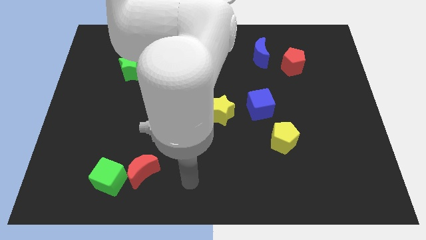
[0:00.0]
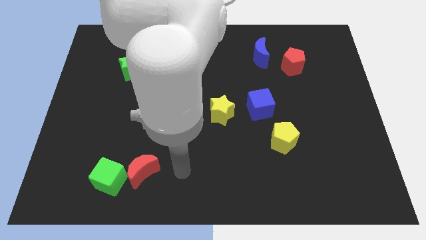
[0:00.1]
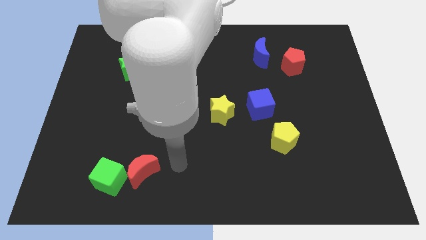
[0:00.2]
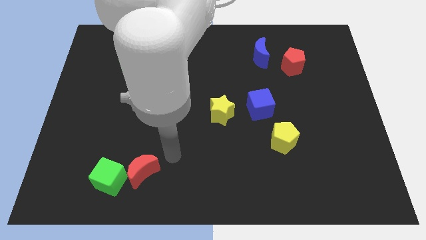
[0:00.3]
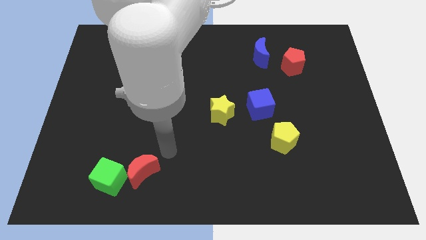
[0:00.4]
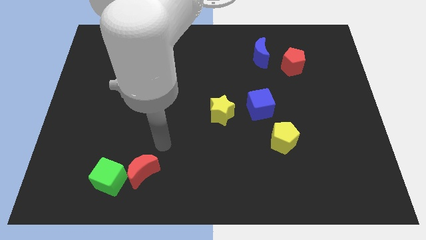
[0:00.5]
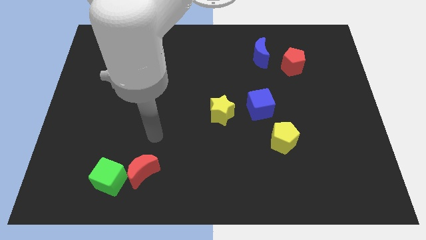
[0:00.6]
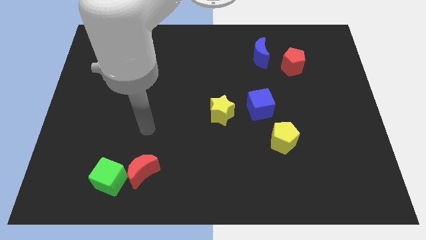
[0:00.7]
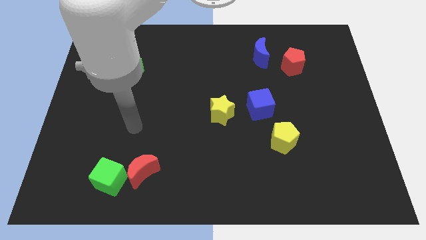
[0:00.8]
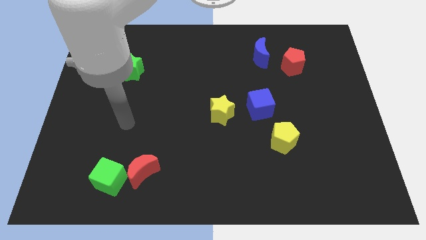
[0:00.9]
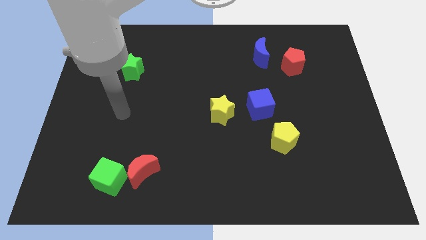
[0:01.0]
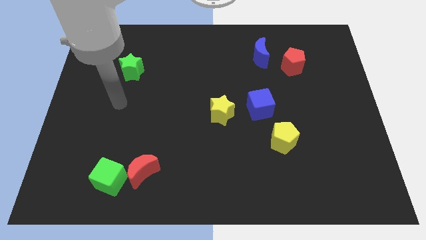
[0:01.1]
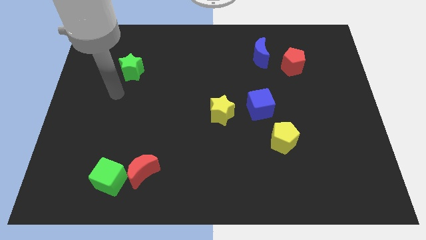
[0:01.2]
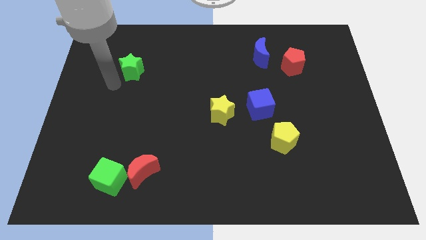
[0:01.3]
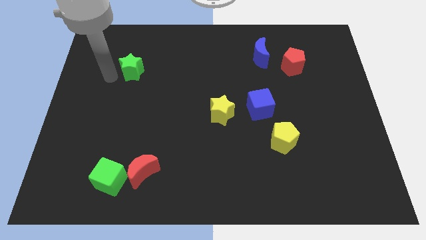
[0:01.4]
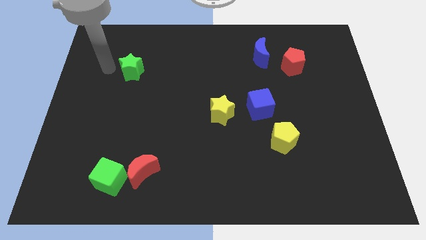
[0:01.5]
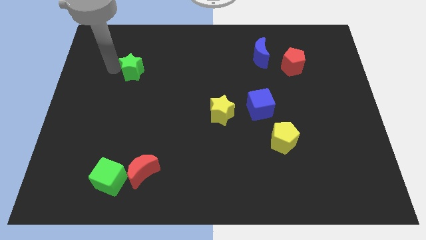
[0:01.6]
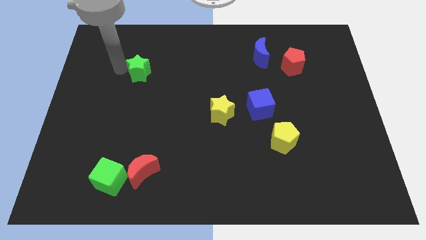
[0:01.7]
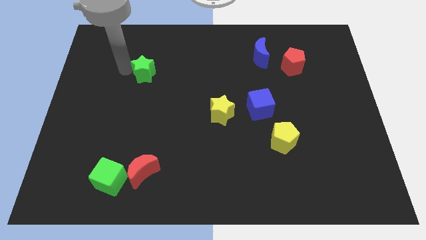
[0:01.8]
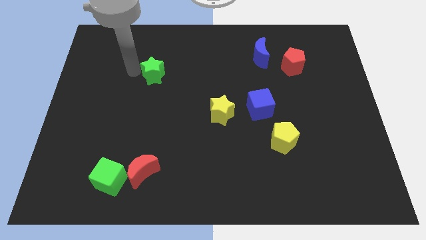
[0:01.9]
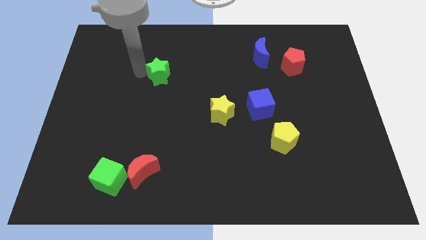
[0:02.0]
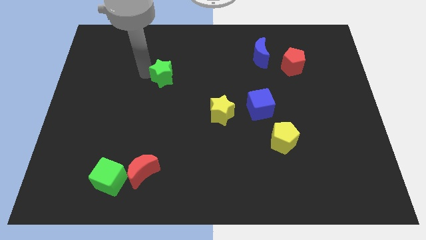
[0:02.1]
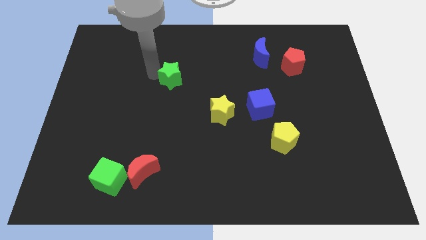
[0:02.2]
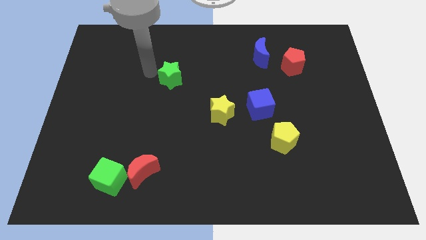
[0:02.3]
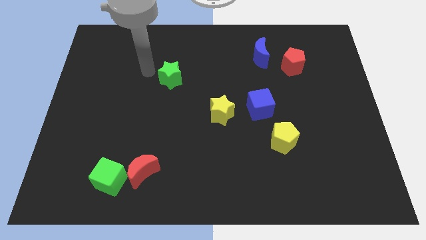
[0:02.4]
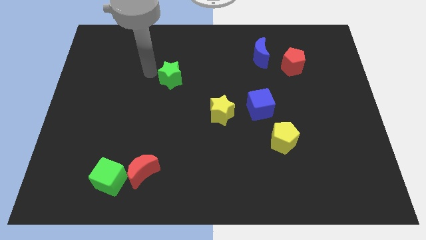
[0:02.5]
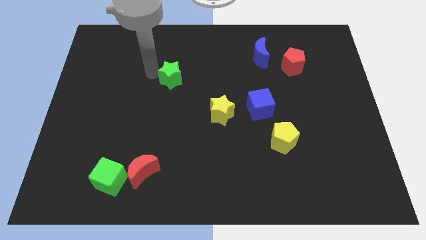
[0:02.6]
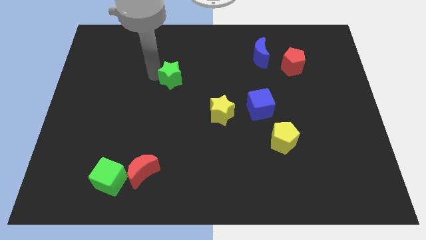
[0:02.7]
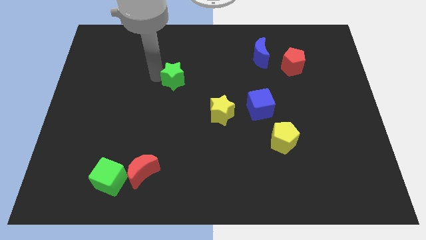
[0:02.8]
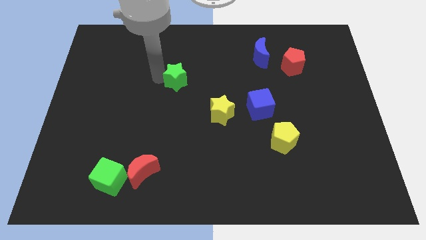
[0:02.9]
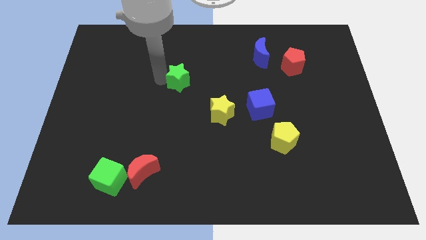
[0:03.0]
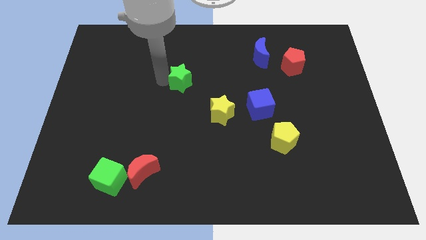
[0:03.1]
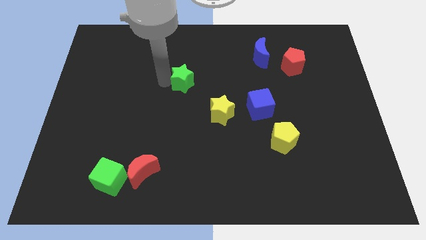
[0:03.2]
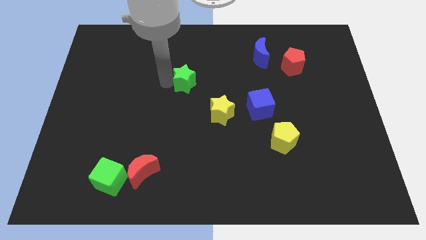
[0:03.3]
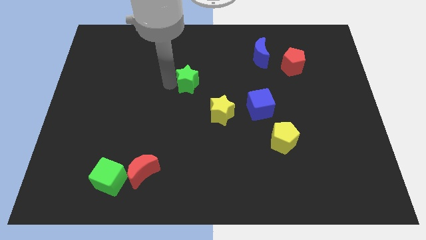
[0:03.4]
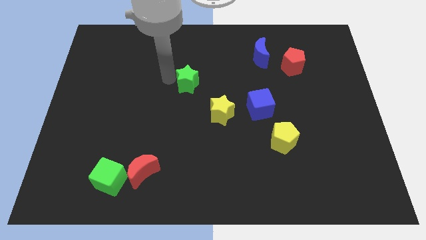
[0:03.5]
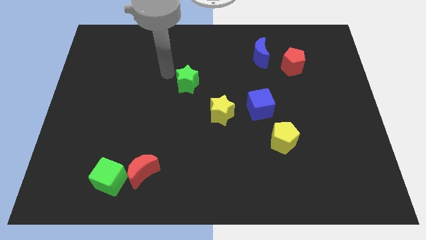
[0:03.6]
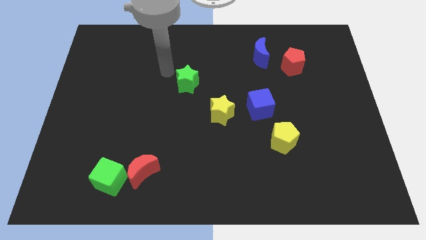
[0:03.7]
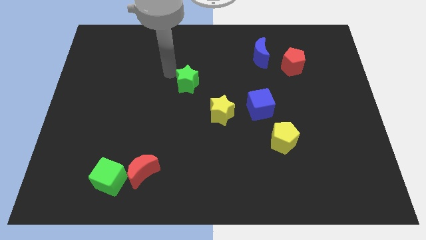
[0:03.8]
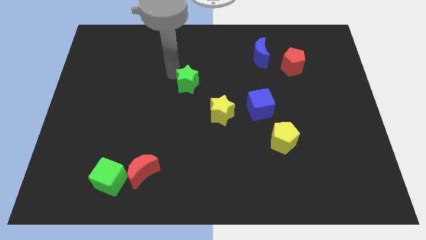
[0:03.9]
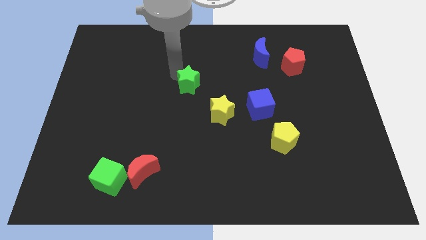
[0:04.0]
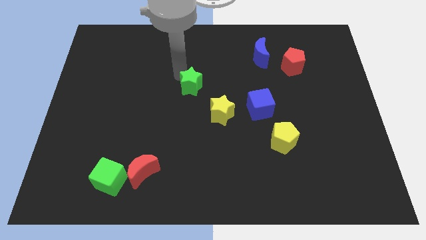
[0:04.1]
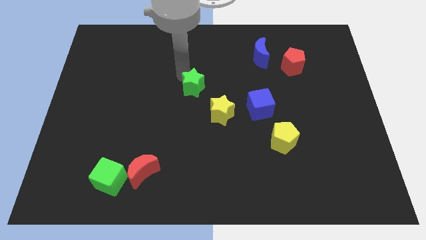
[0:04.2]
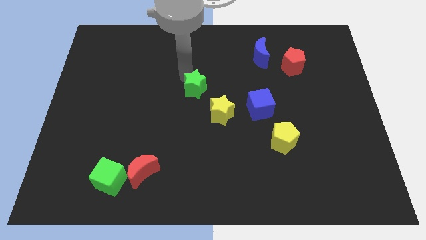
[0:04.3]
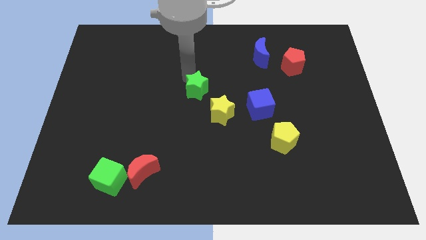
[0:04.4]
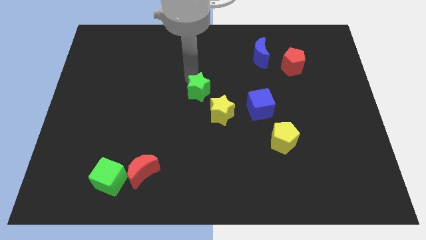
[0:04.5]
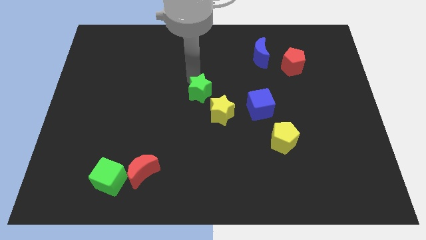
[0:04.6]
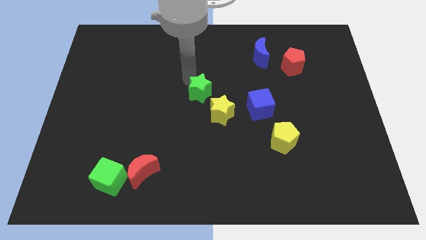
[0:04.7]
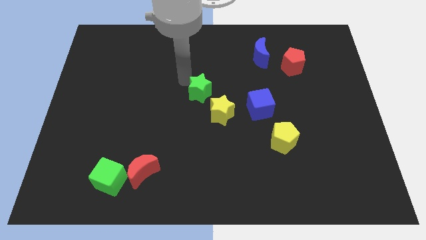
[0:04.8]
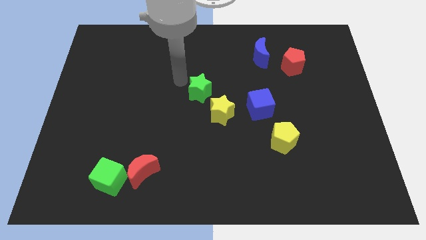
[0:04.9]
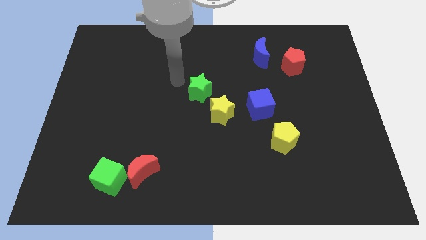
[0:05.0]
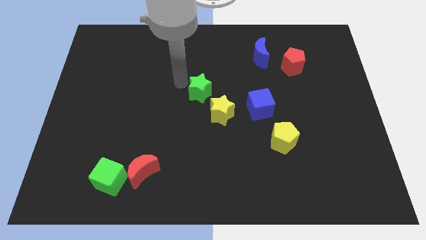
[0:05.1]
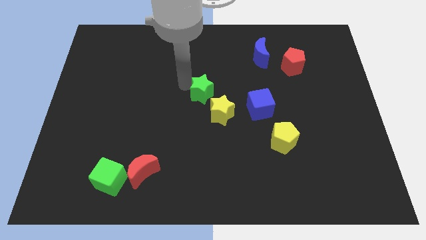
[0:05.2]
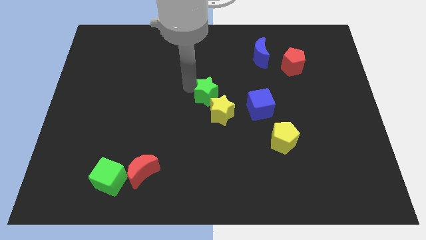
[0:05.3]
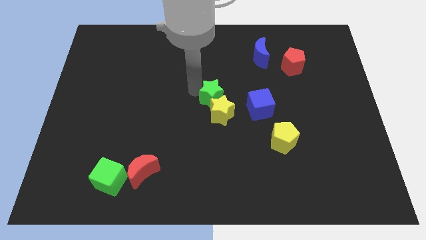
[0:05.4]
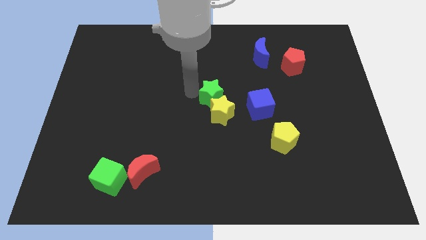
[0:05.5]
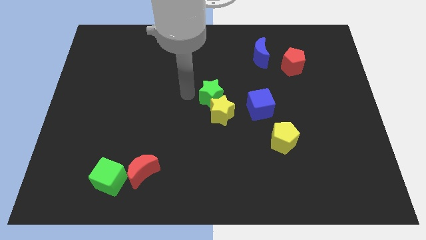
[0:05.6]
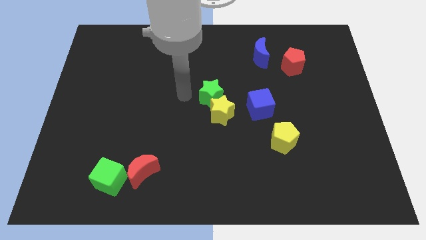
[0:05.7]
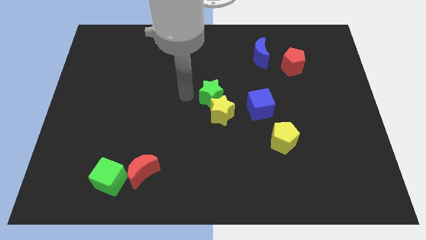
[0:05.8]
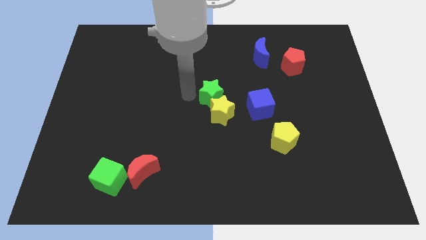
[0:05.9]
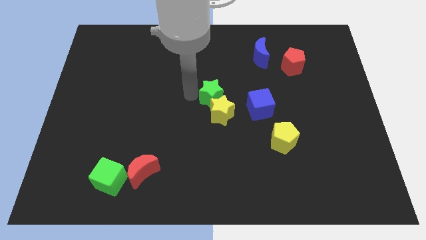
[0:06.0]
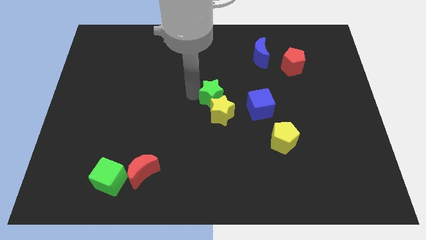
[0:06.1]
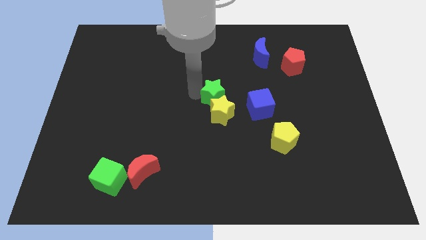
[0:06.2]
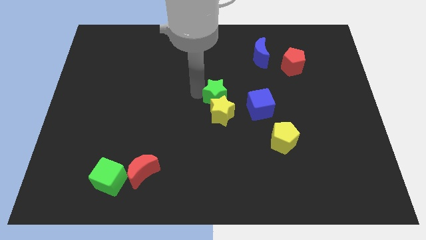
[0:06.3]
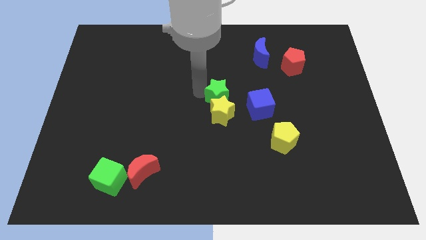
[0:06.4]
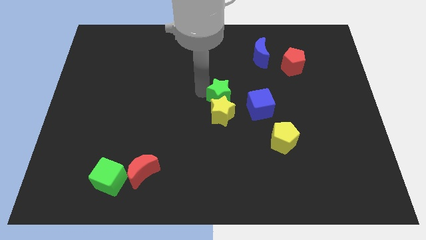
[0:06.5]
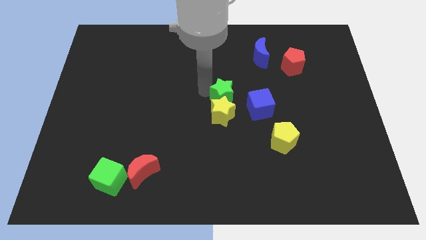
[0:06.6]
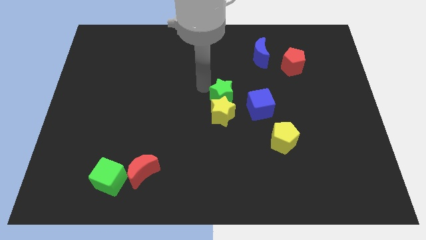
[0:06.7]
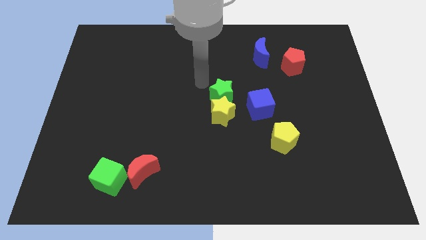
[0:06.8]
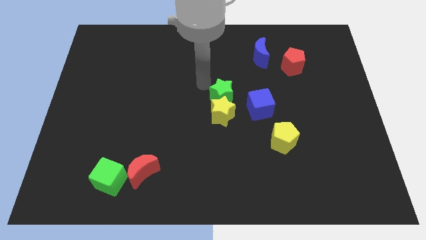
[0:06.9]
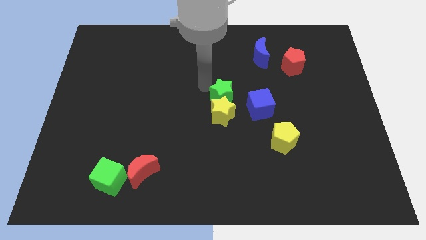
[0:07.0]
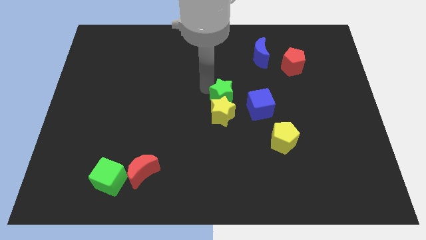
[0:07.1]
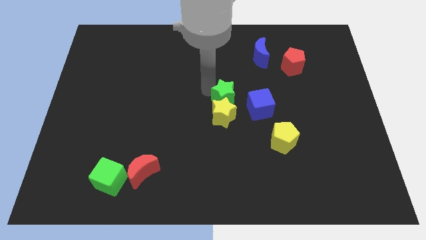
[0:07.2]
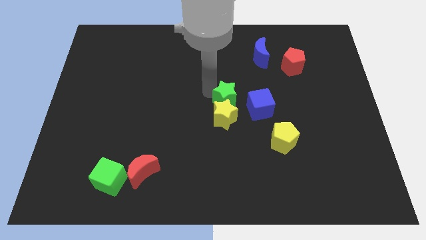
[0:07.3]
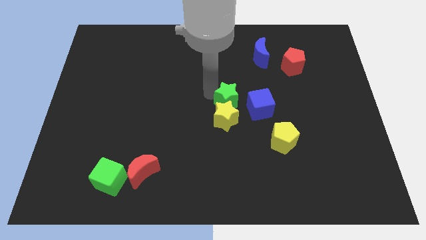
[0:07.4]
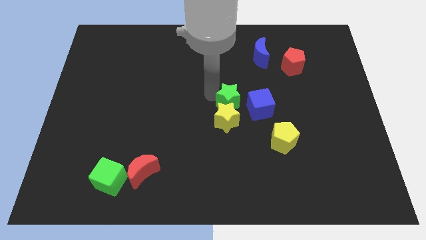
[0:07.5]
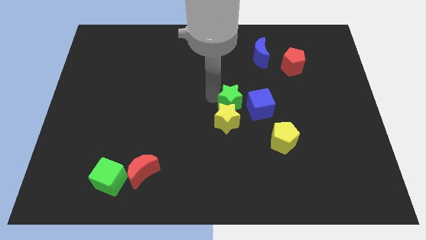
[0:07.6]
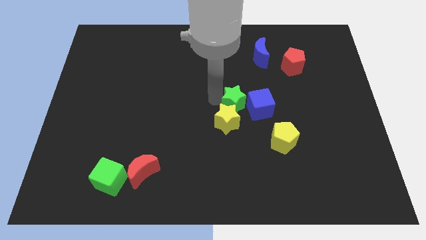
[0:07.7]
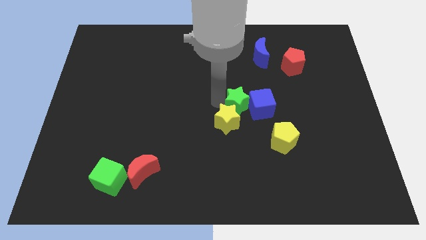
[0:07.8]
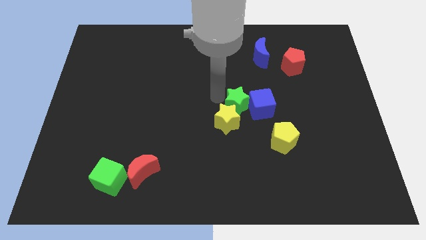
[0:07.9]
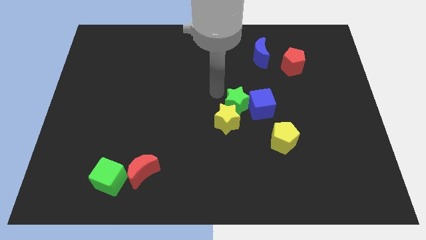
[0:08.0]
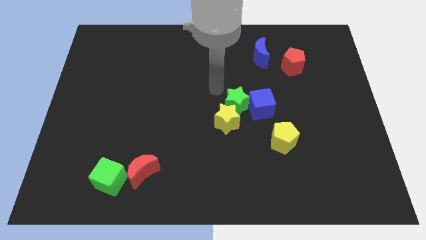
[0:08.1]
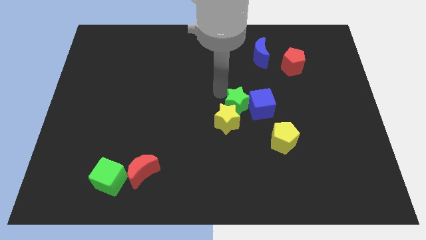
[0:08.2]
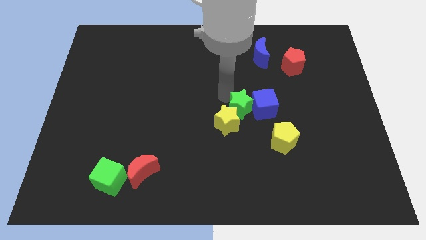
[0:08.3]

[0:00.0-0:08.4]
move the green star to the top left side of the yellow pentagon
